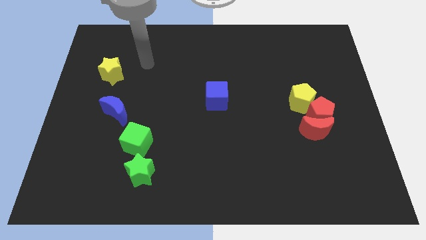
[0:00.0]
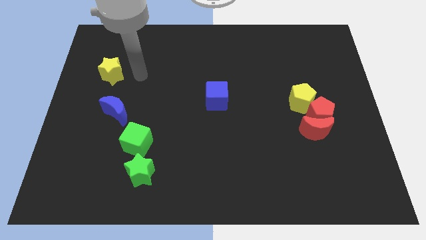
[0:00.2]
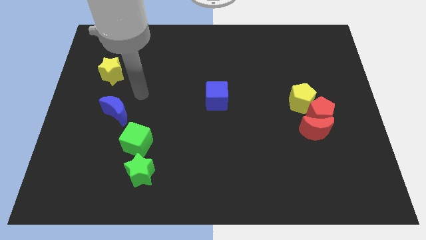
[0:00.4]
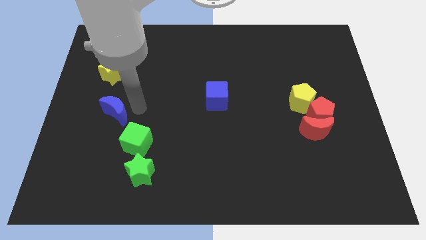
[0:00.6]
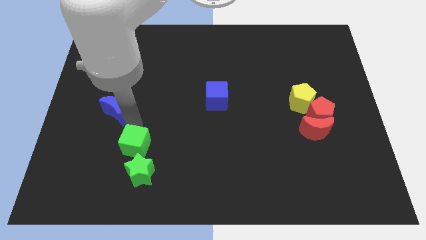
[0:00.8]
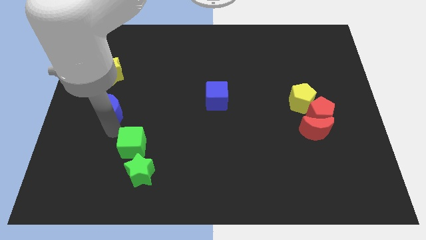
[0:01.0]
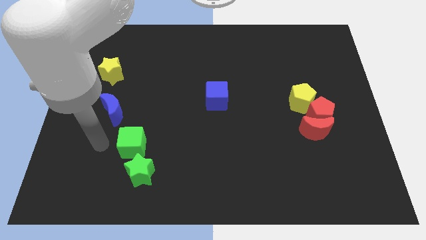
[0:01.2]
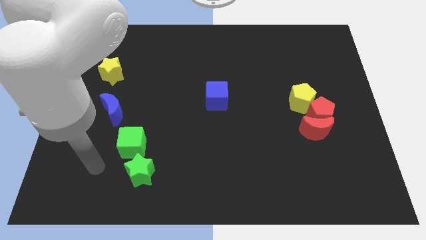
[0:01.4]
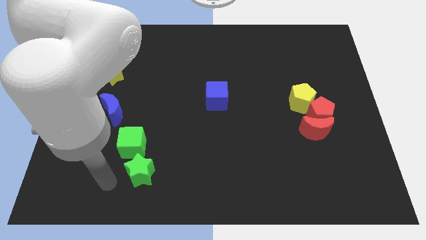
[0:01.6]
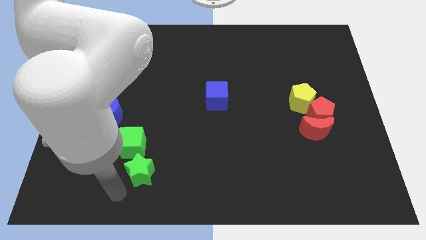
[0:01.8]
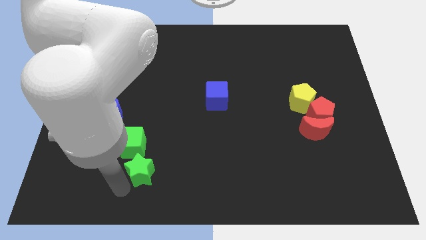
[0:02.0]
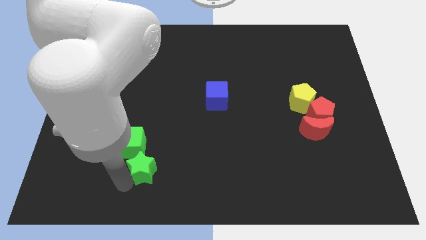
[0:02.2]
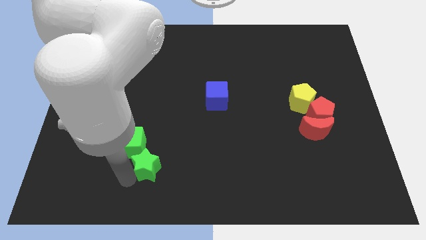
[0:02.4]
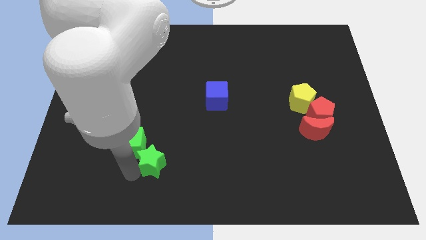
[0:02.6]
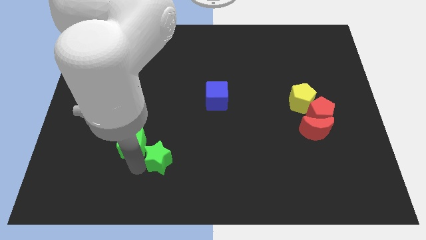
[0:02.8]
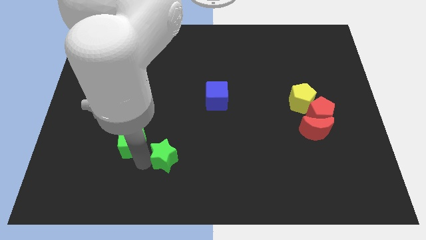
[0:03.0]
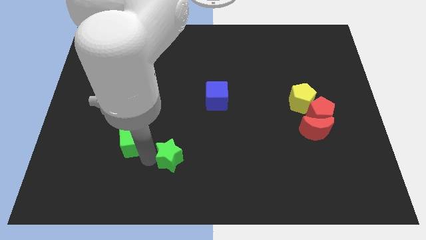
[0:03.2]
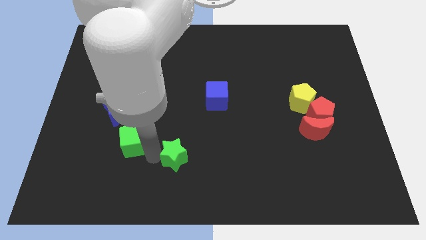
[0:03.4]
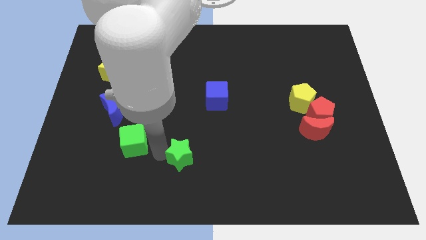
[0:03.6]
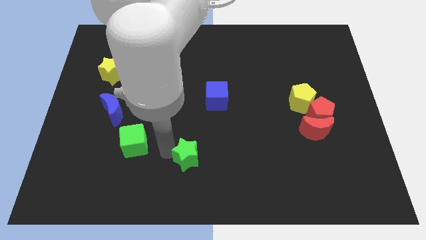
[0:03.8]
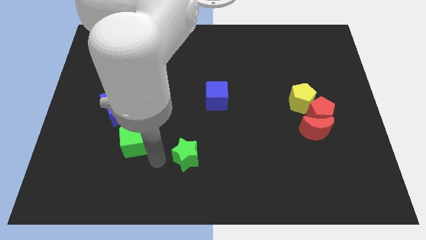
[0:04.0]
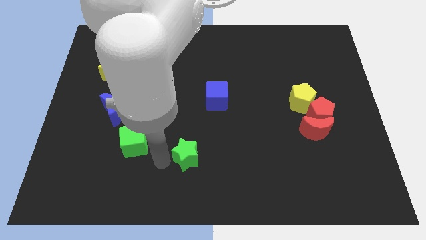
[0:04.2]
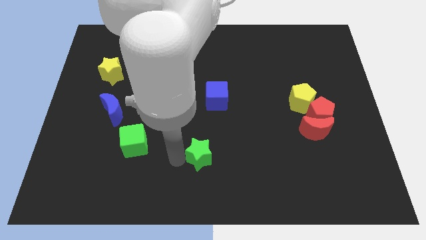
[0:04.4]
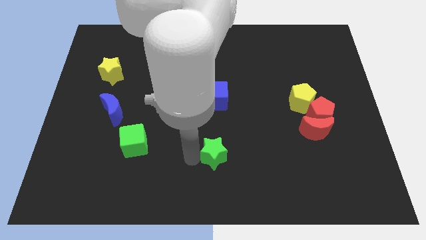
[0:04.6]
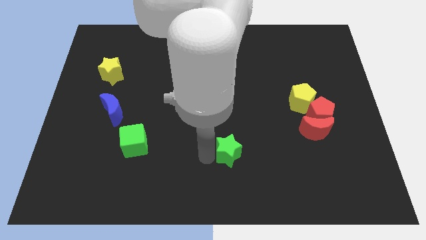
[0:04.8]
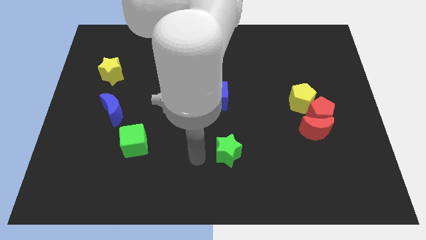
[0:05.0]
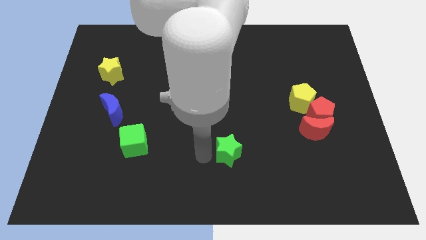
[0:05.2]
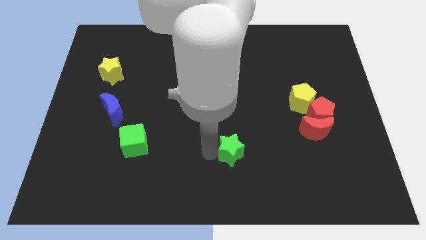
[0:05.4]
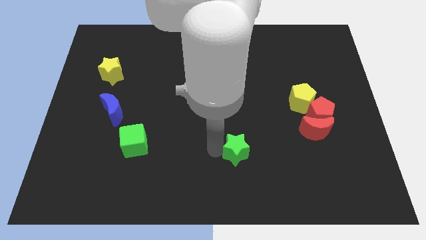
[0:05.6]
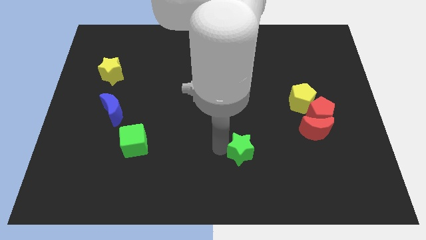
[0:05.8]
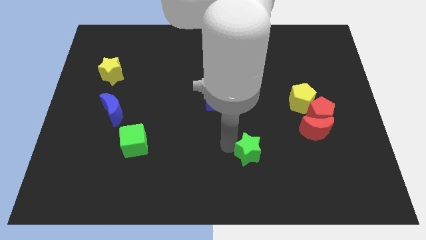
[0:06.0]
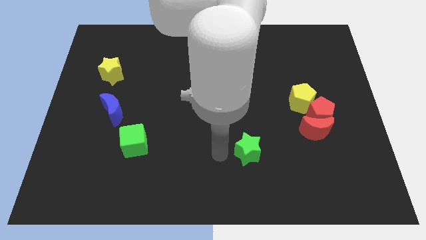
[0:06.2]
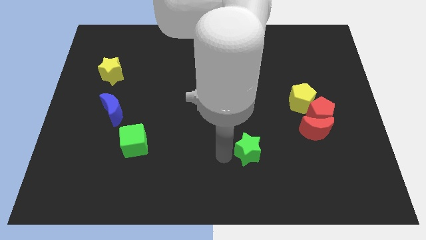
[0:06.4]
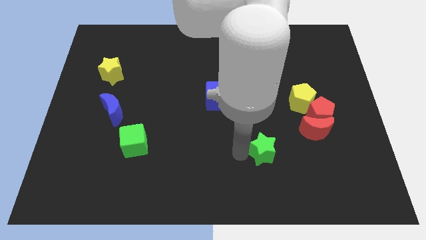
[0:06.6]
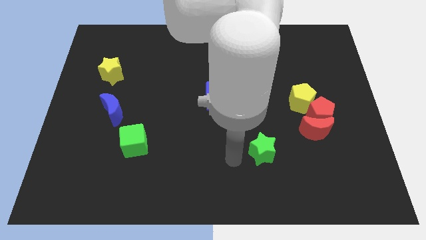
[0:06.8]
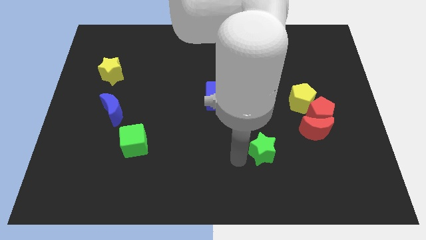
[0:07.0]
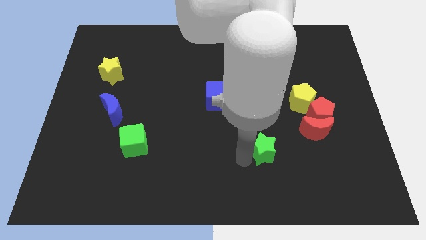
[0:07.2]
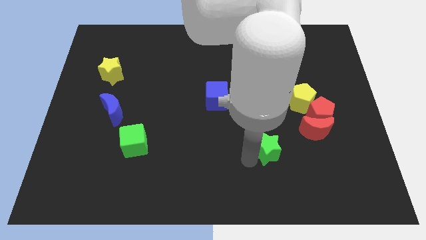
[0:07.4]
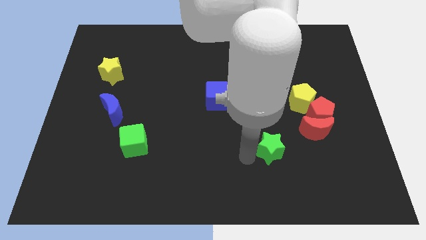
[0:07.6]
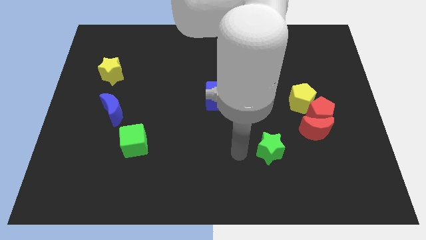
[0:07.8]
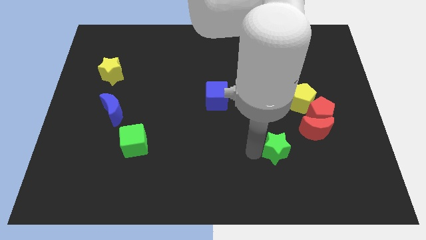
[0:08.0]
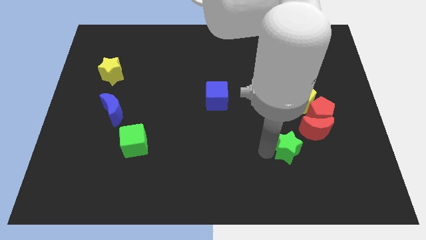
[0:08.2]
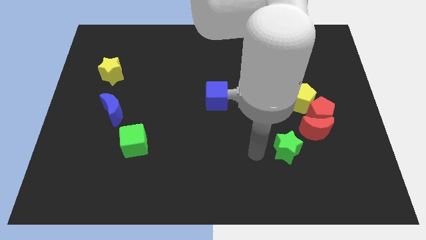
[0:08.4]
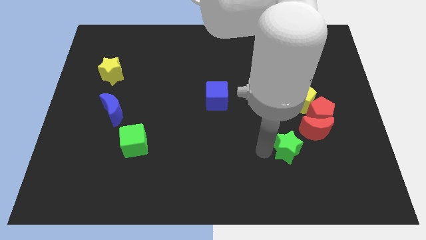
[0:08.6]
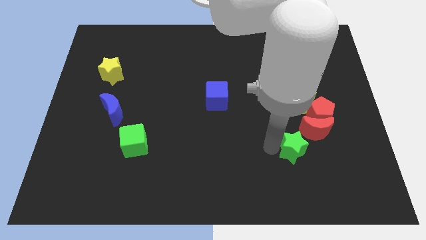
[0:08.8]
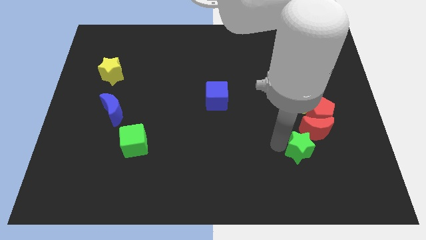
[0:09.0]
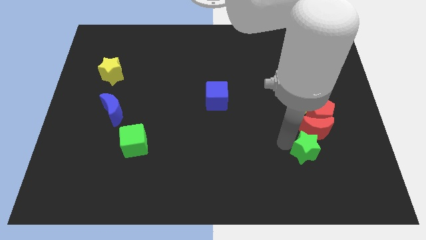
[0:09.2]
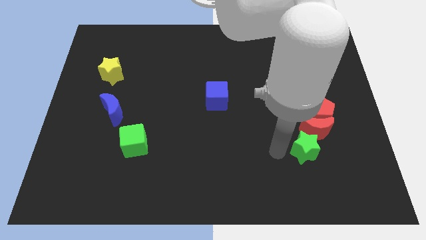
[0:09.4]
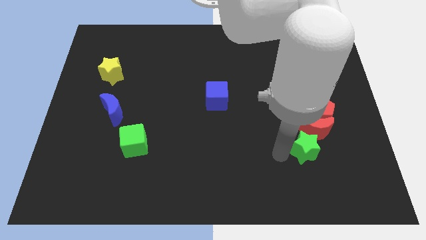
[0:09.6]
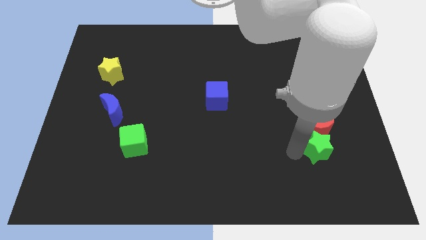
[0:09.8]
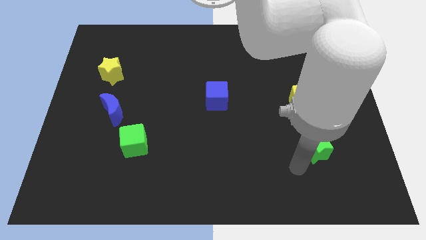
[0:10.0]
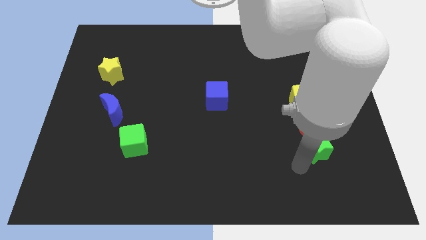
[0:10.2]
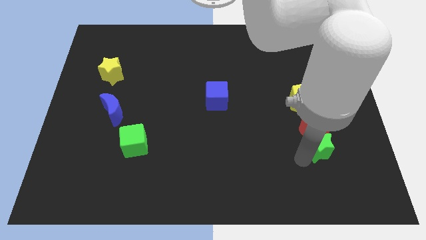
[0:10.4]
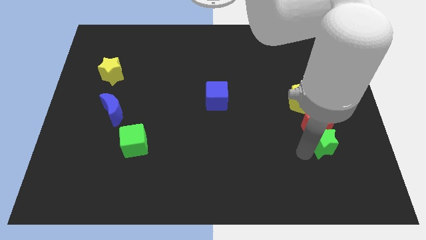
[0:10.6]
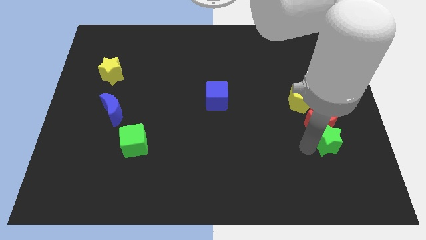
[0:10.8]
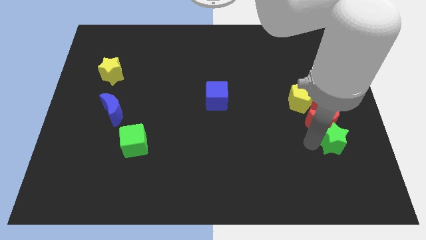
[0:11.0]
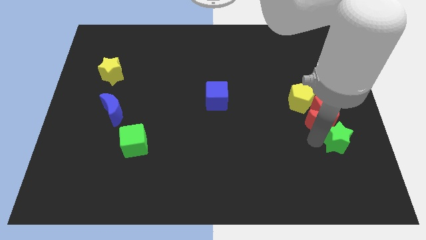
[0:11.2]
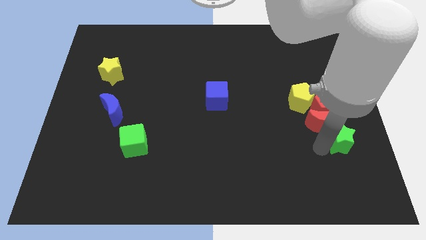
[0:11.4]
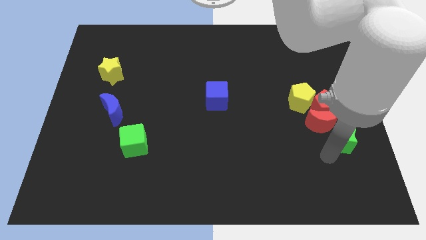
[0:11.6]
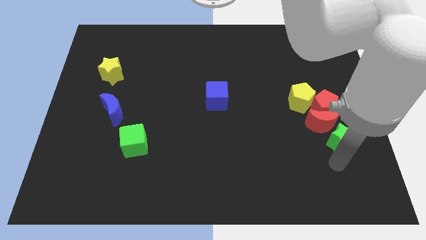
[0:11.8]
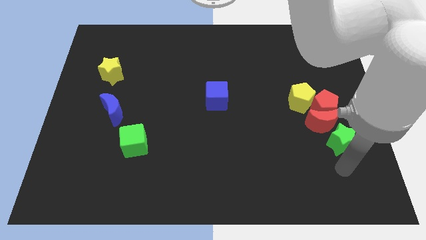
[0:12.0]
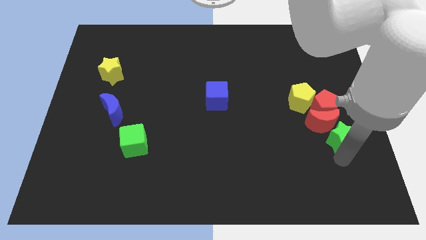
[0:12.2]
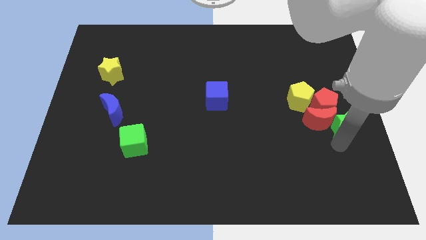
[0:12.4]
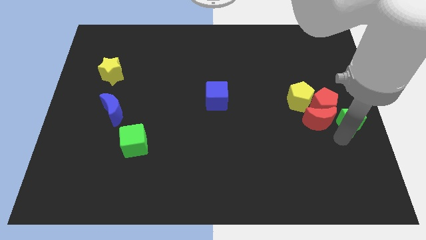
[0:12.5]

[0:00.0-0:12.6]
put the green star to the top right side of the red moon
